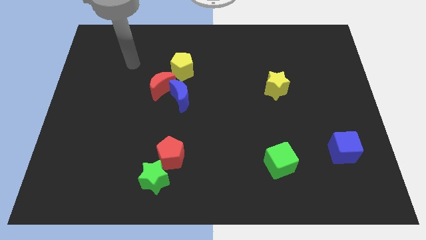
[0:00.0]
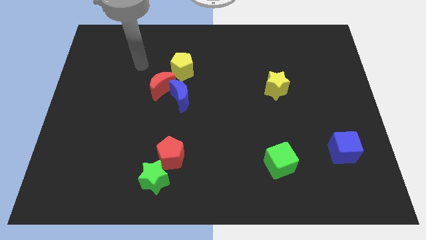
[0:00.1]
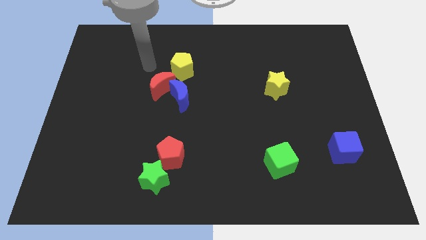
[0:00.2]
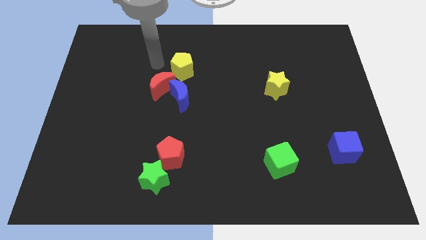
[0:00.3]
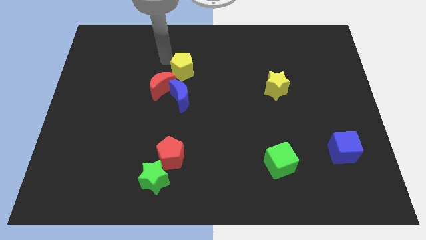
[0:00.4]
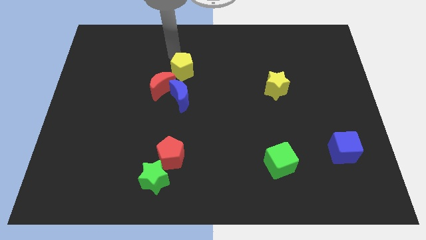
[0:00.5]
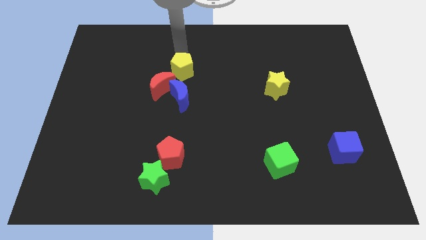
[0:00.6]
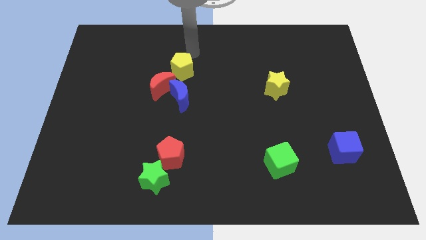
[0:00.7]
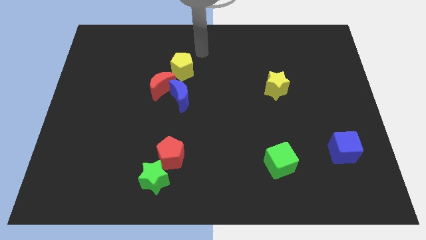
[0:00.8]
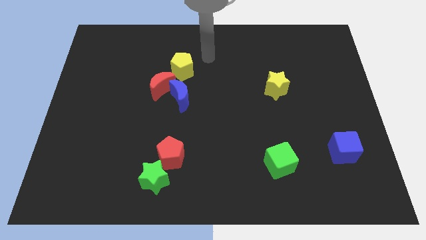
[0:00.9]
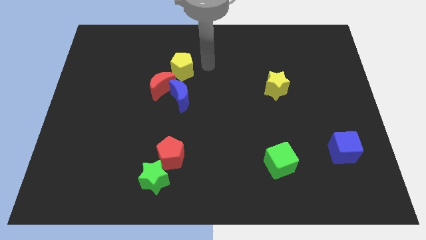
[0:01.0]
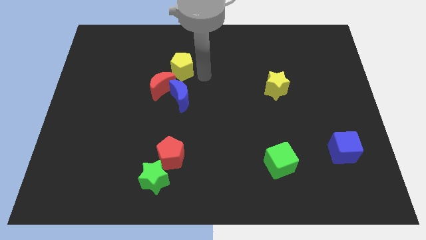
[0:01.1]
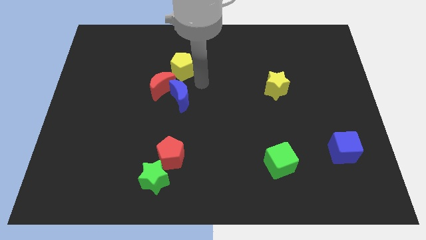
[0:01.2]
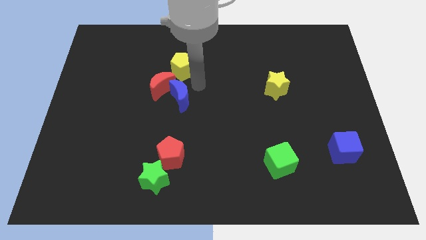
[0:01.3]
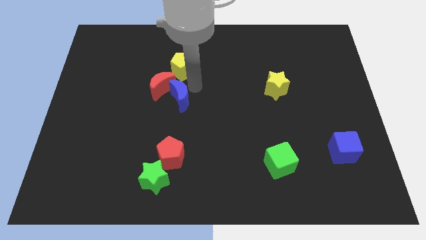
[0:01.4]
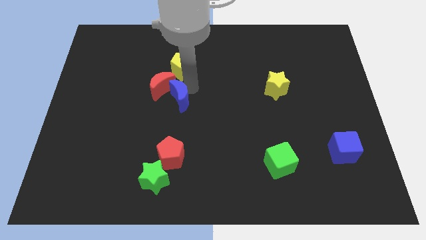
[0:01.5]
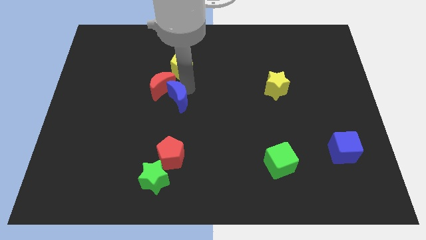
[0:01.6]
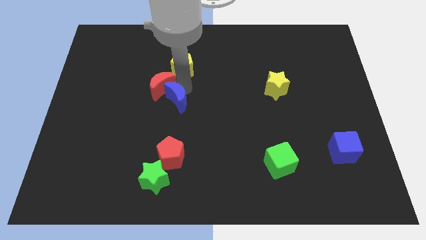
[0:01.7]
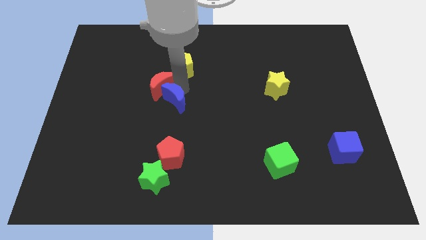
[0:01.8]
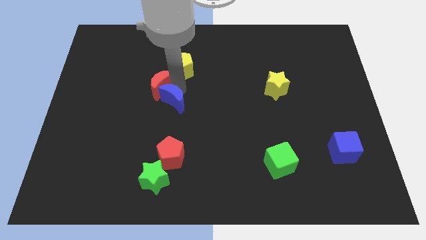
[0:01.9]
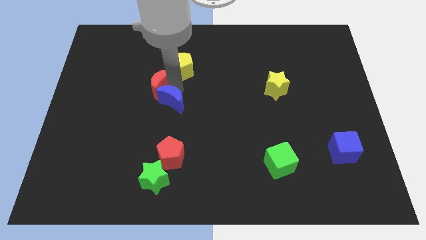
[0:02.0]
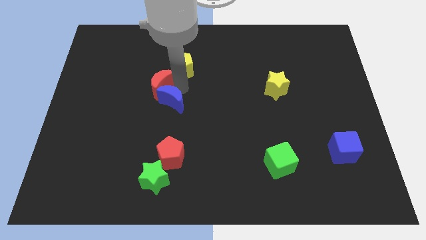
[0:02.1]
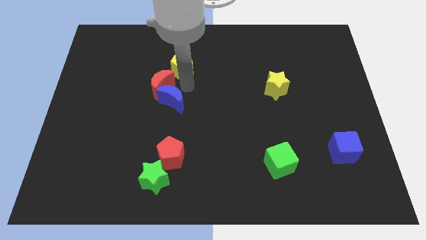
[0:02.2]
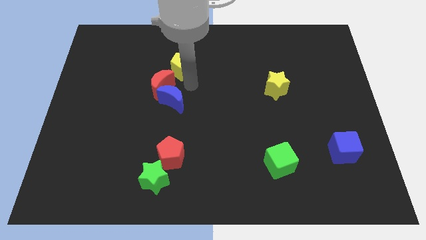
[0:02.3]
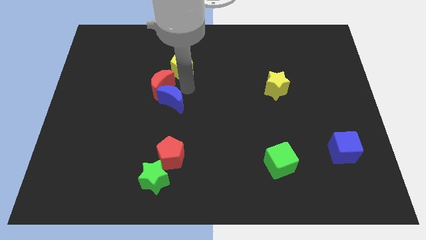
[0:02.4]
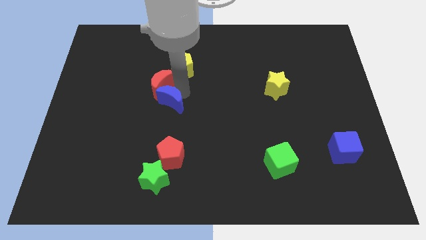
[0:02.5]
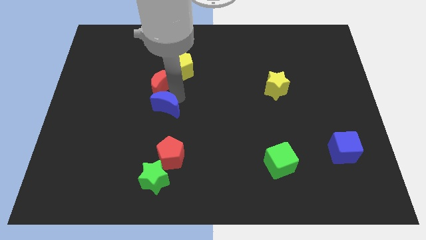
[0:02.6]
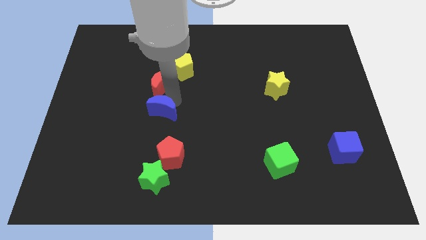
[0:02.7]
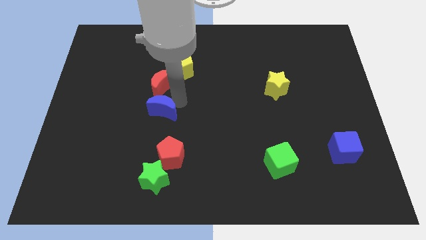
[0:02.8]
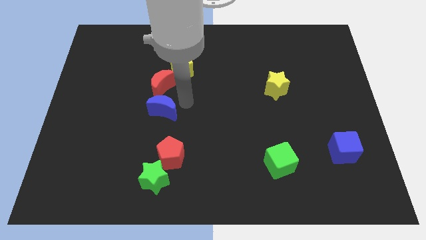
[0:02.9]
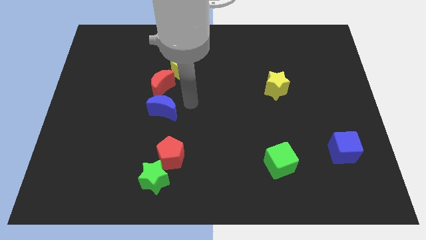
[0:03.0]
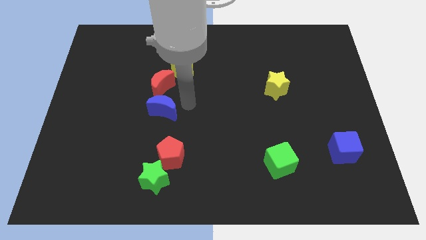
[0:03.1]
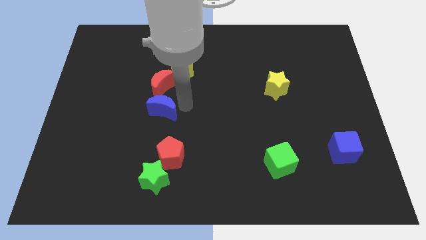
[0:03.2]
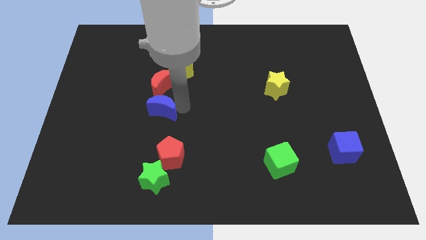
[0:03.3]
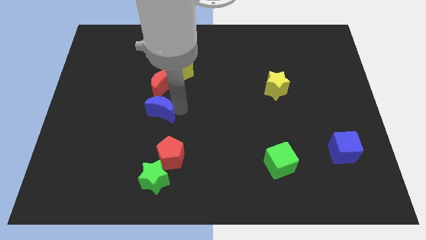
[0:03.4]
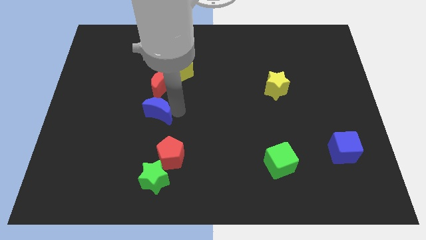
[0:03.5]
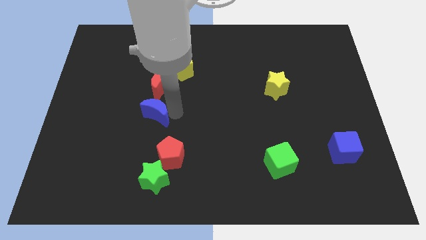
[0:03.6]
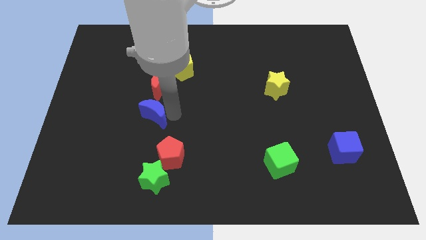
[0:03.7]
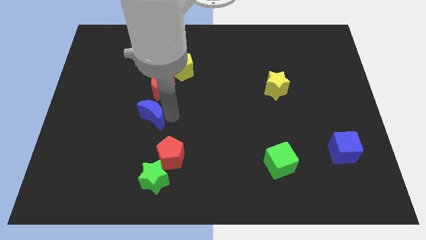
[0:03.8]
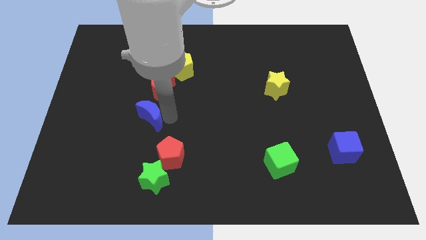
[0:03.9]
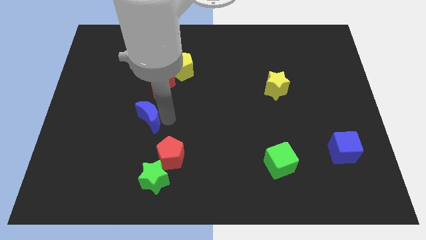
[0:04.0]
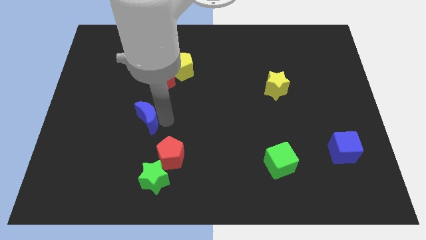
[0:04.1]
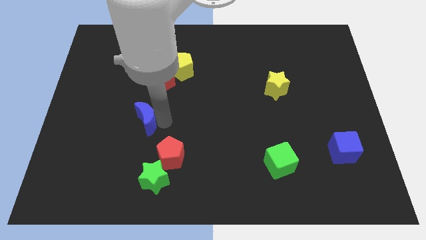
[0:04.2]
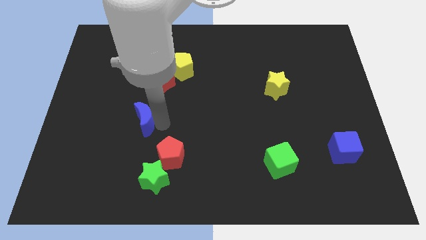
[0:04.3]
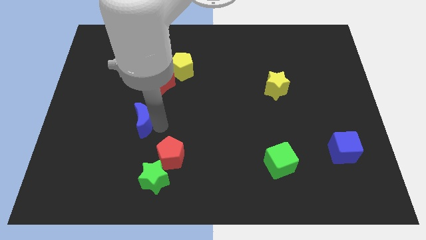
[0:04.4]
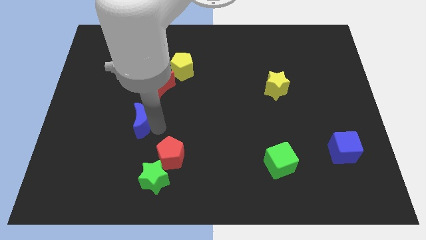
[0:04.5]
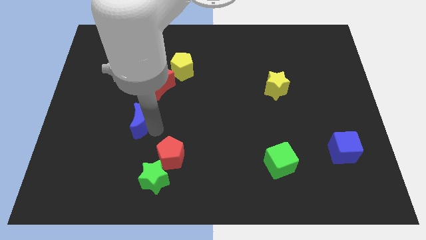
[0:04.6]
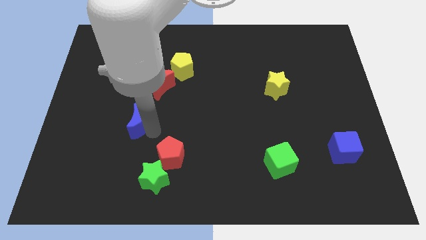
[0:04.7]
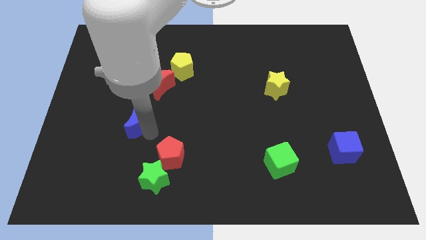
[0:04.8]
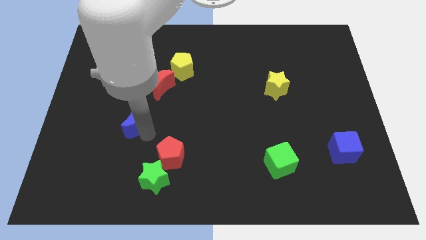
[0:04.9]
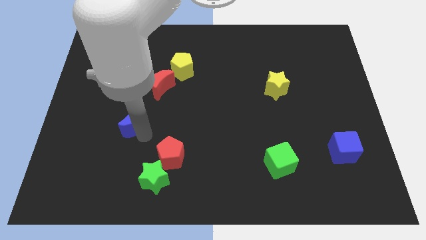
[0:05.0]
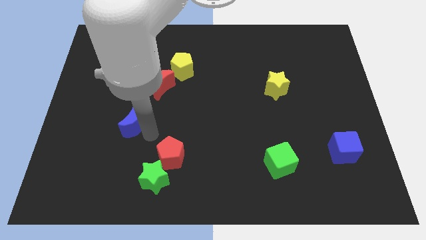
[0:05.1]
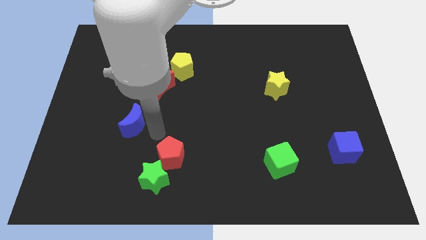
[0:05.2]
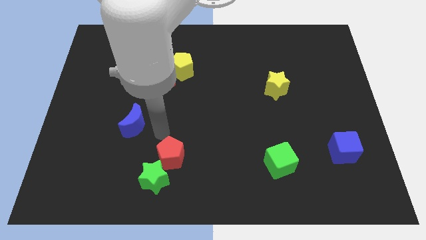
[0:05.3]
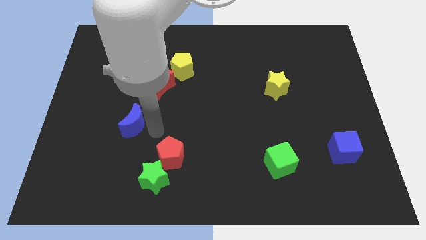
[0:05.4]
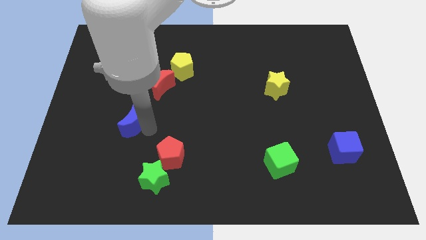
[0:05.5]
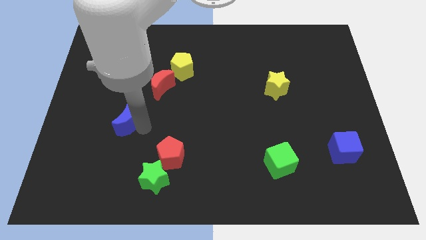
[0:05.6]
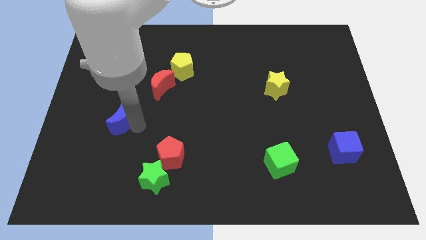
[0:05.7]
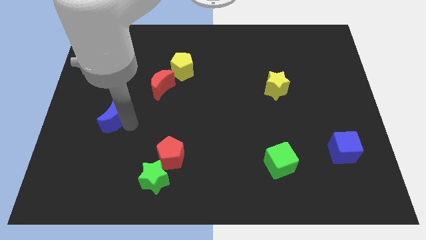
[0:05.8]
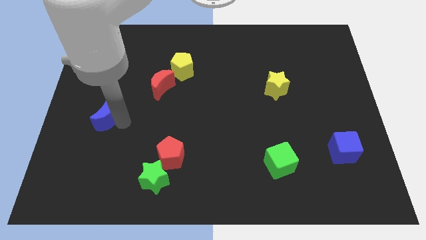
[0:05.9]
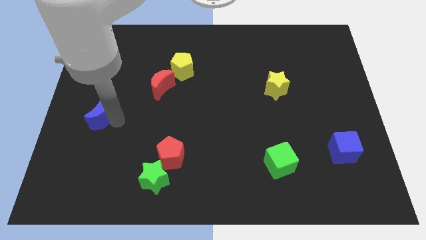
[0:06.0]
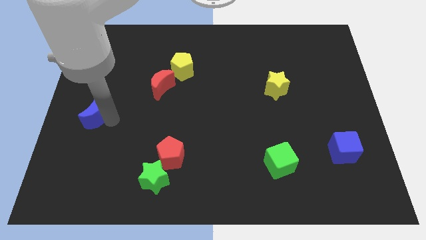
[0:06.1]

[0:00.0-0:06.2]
push the blue moon to the left side of the board

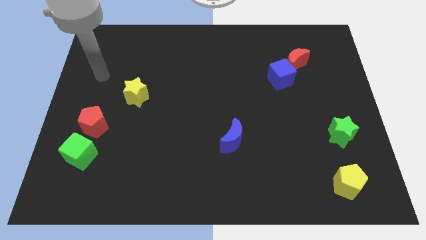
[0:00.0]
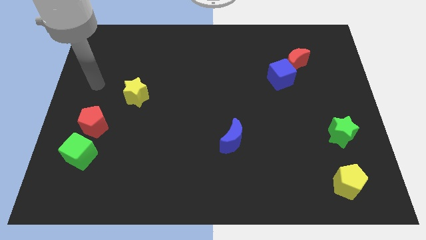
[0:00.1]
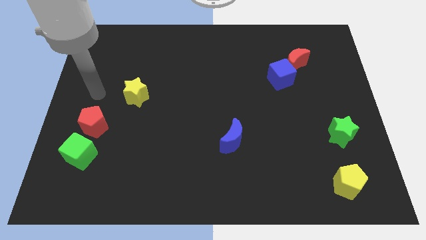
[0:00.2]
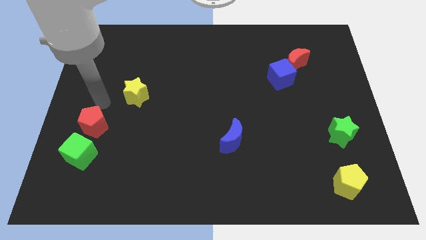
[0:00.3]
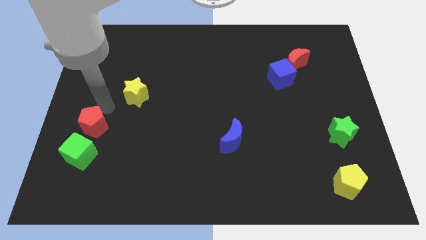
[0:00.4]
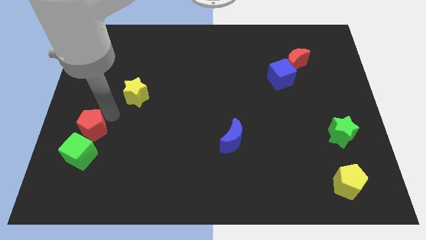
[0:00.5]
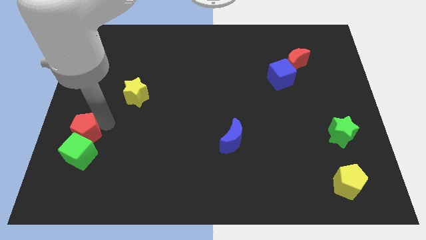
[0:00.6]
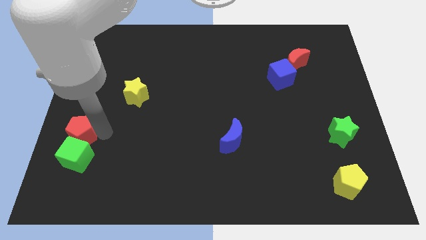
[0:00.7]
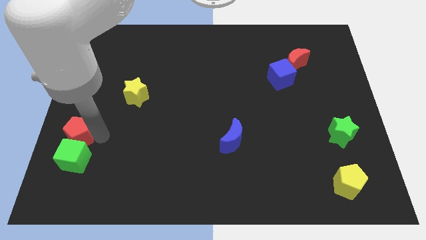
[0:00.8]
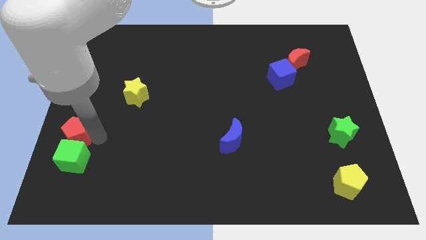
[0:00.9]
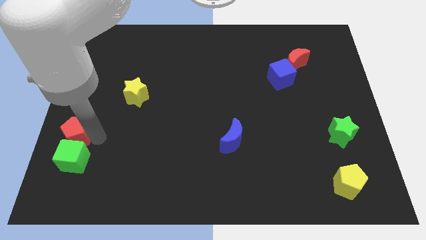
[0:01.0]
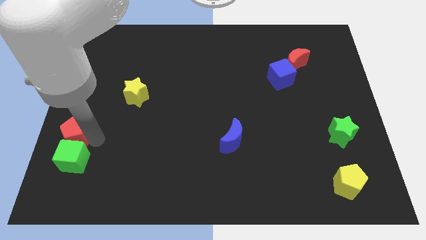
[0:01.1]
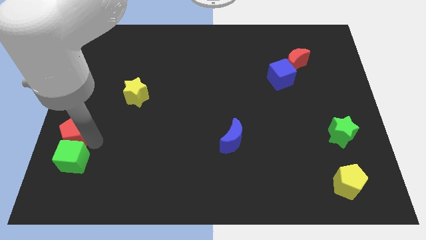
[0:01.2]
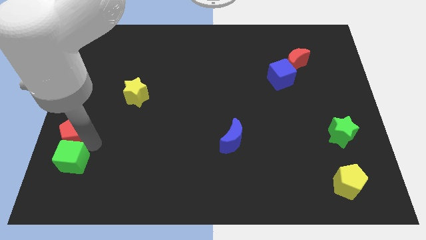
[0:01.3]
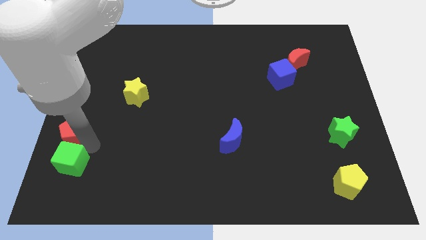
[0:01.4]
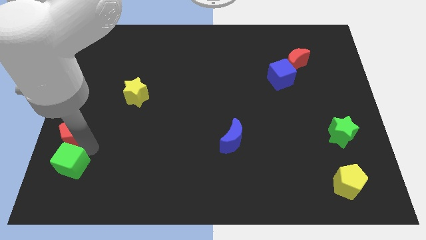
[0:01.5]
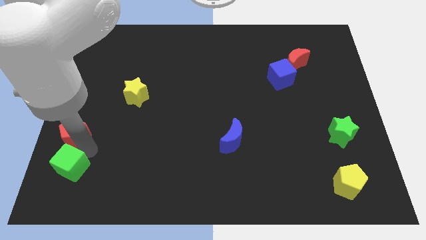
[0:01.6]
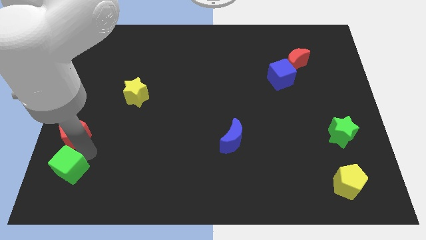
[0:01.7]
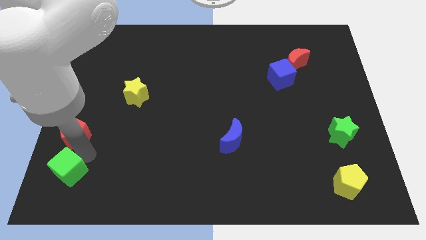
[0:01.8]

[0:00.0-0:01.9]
move the green cube to the bottom left corner
